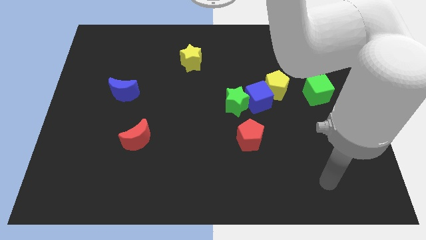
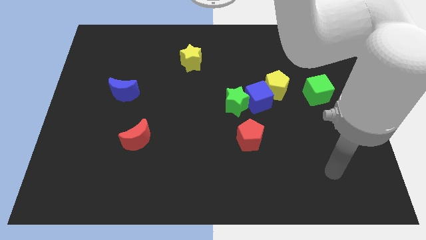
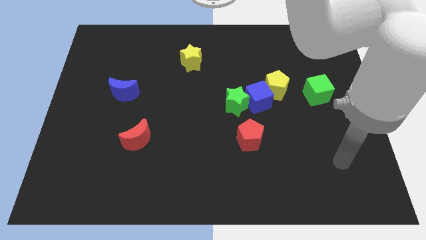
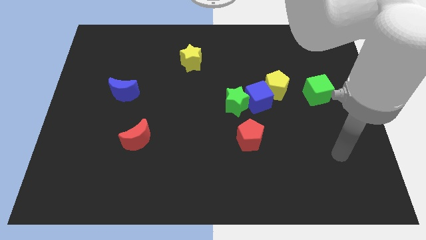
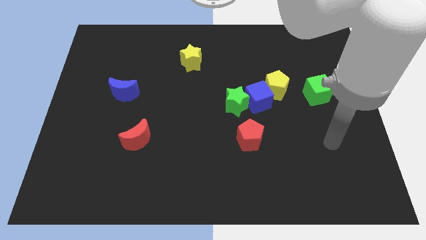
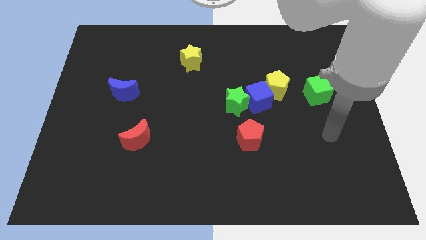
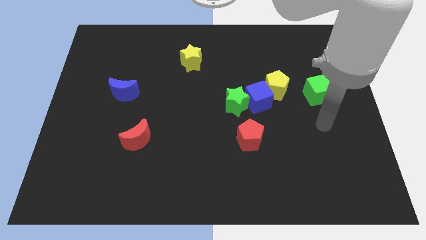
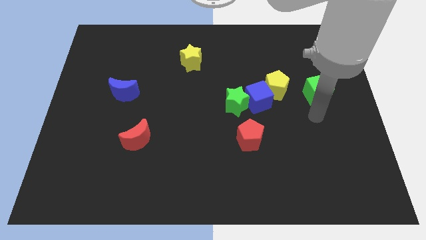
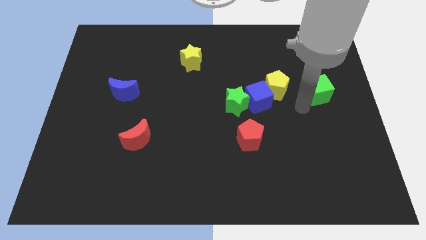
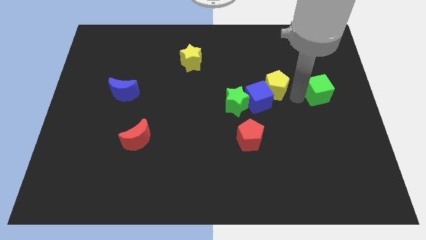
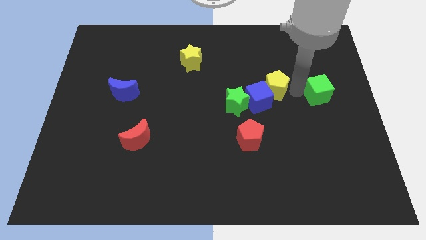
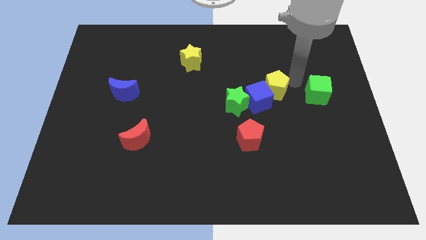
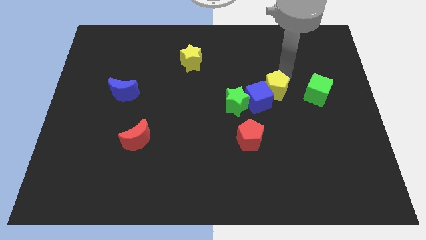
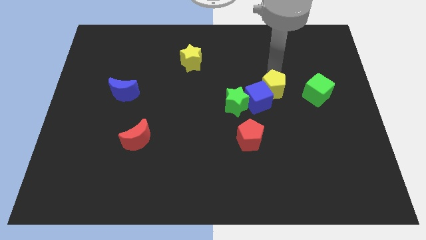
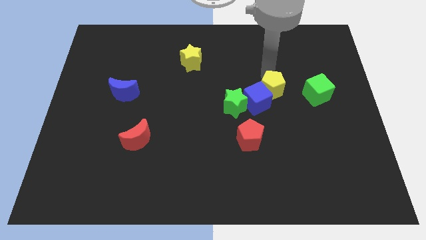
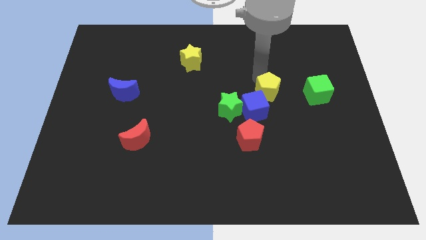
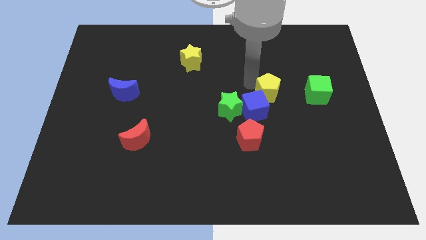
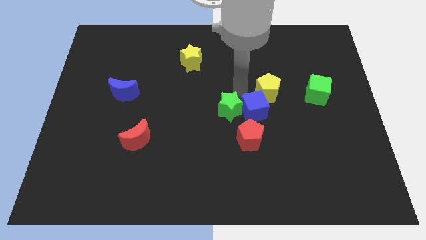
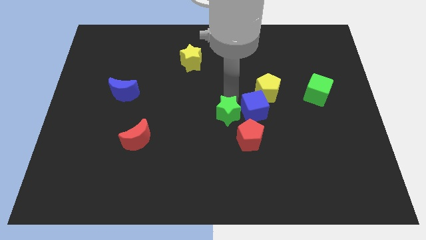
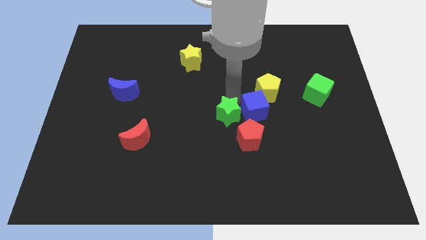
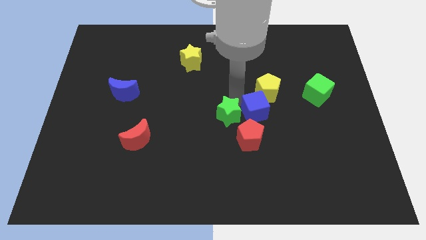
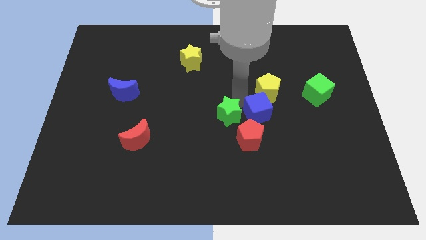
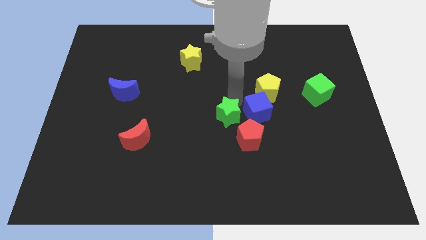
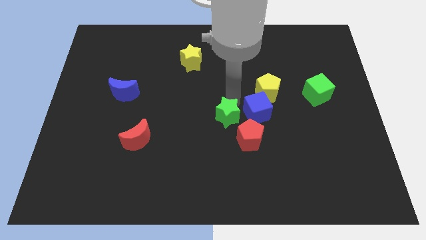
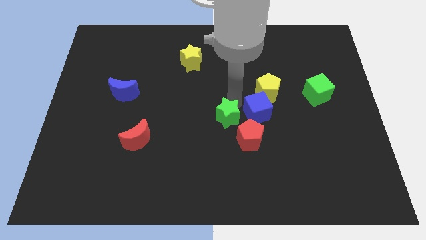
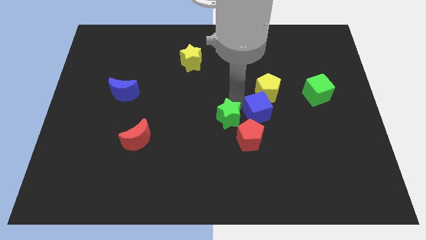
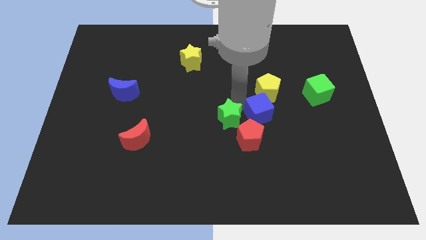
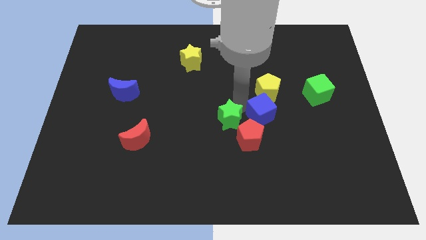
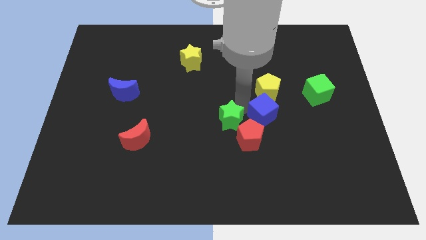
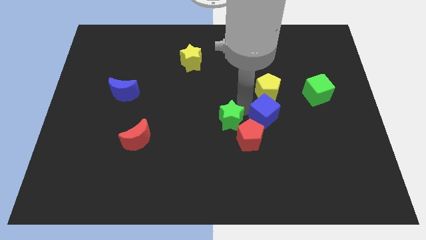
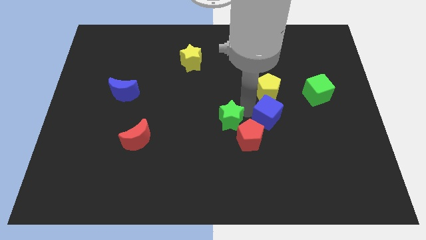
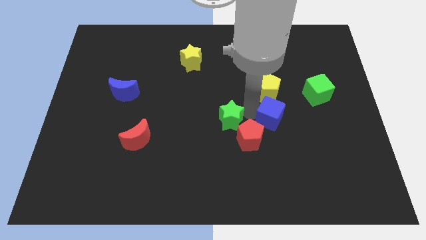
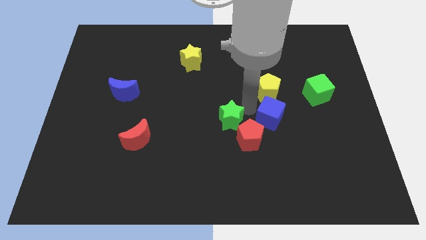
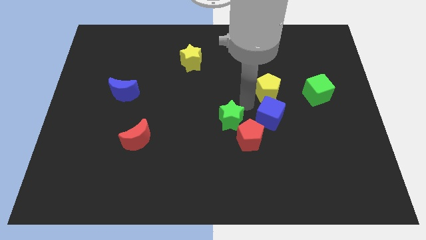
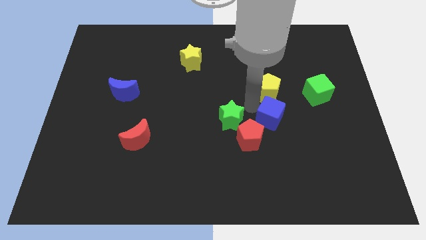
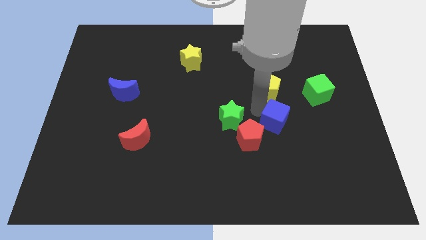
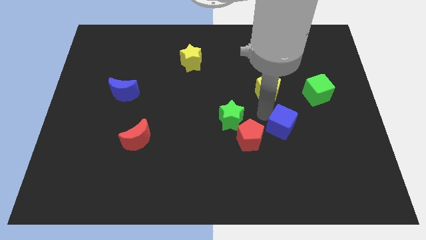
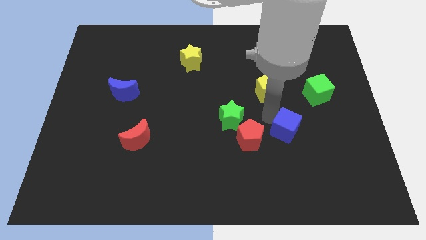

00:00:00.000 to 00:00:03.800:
separate the blue cube from the yellow pentagon and green star

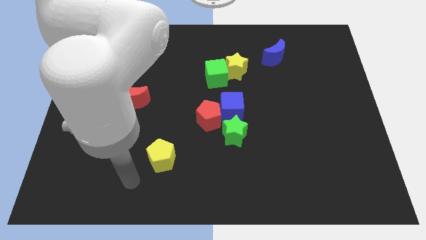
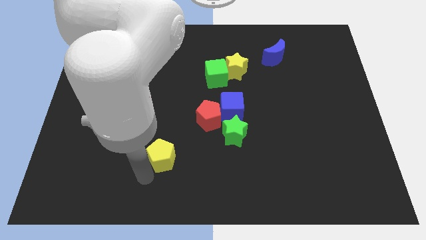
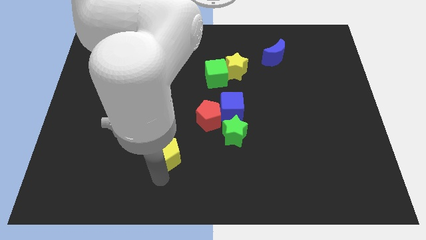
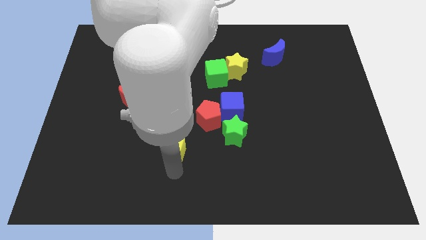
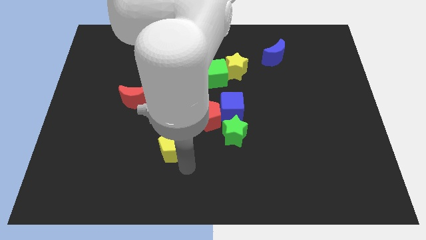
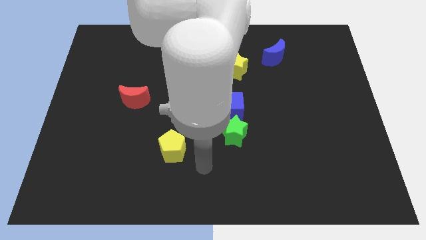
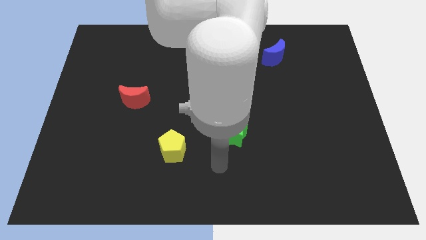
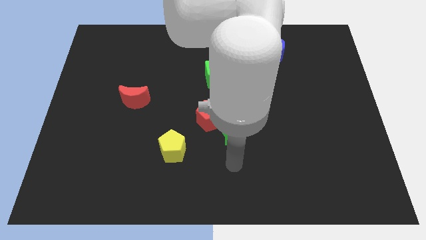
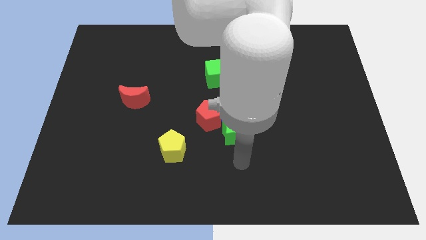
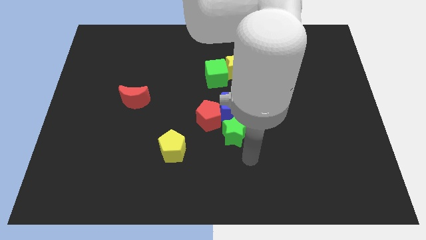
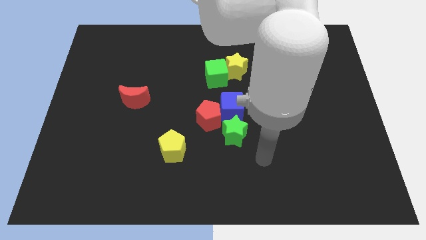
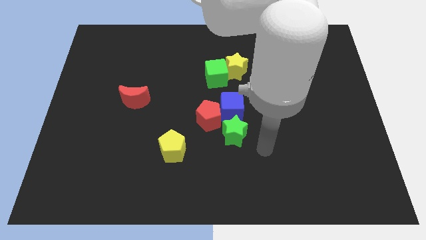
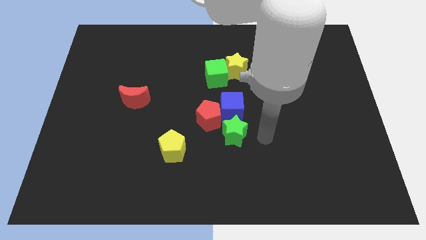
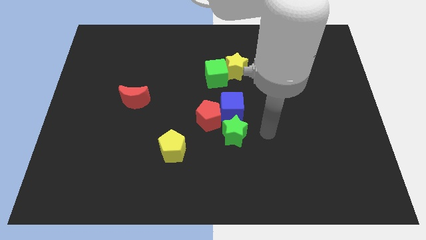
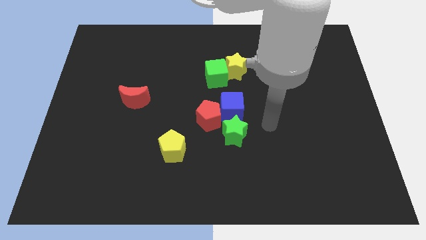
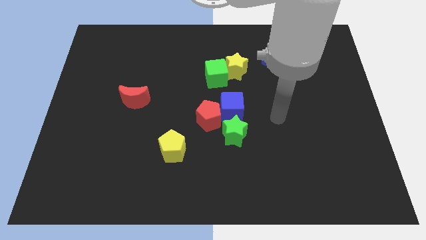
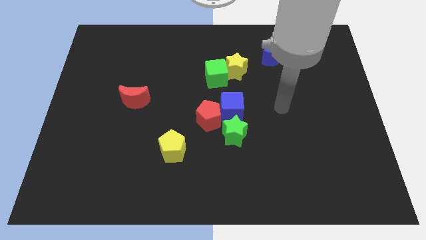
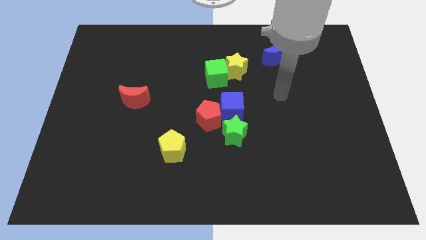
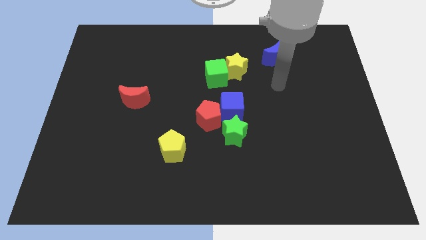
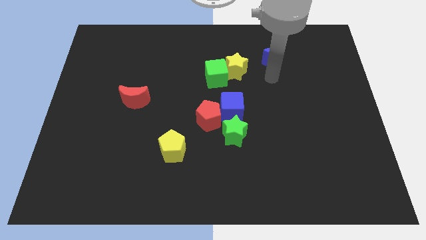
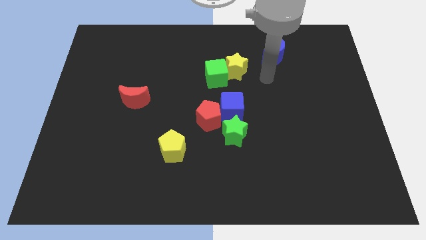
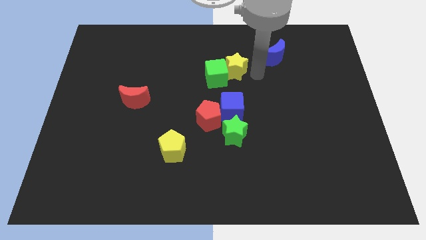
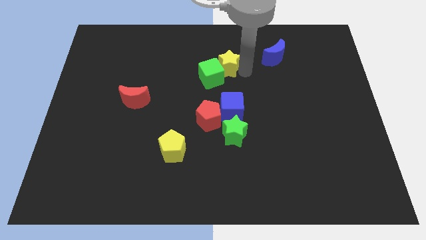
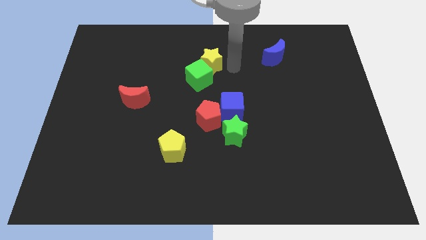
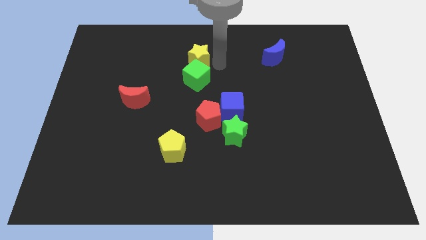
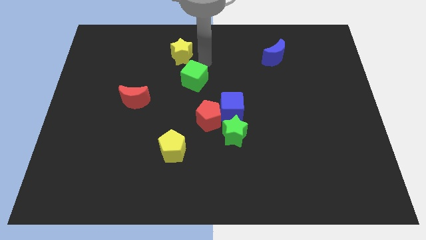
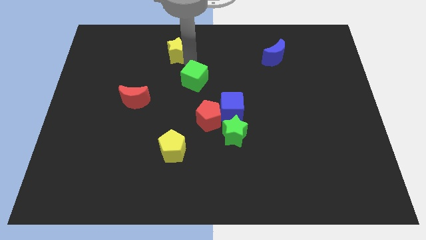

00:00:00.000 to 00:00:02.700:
pull the green cube apart from the yellow star

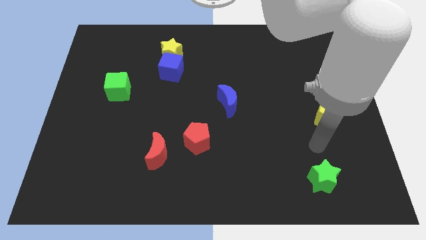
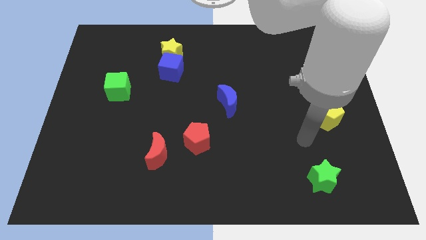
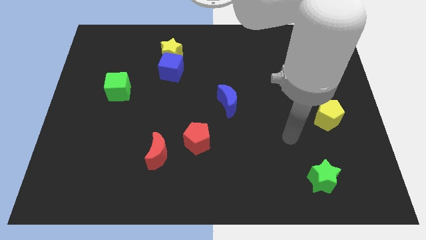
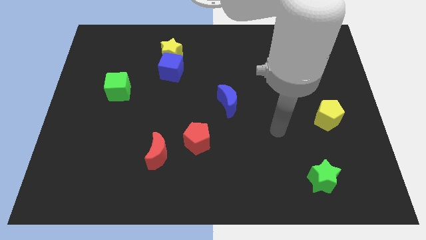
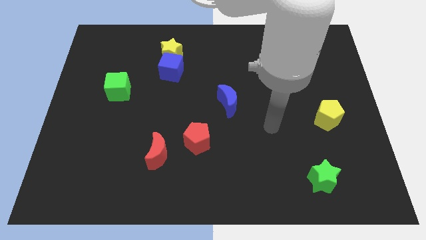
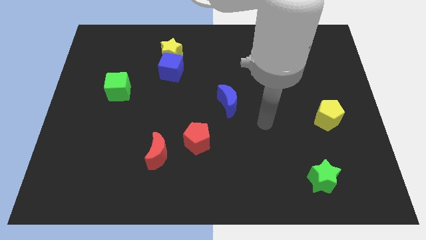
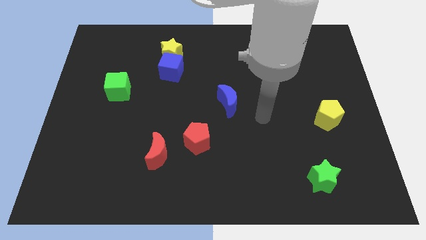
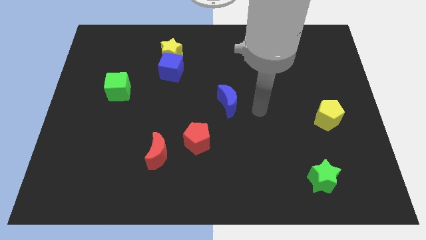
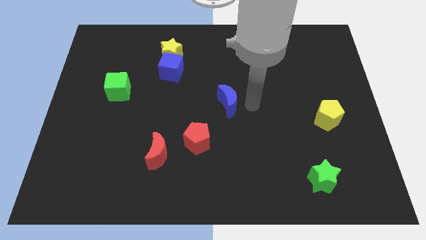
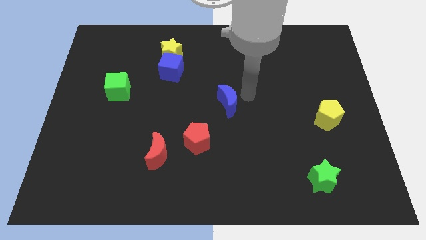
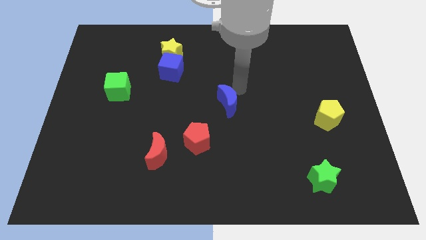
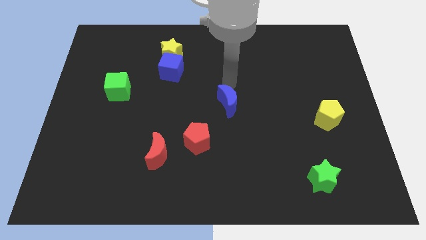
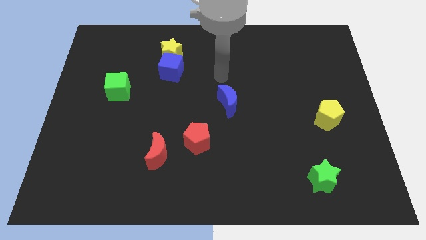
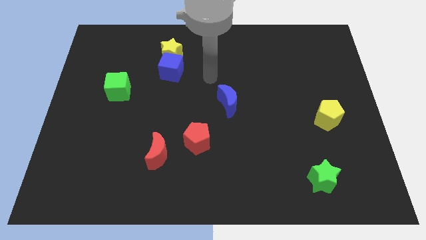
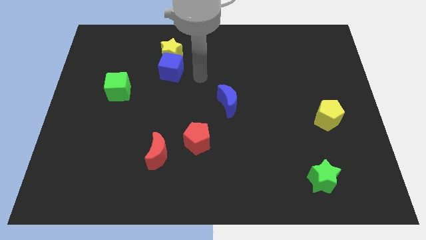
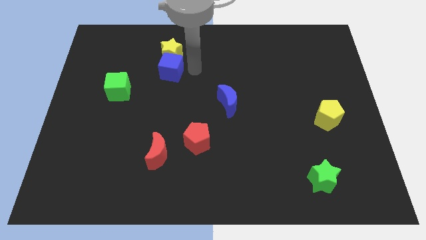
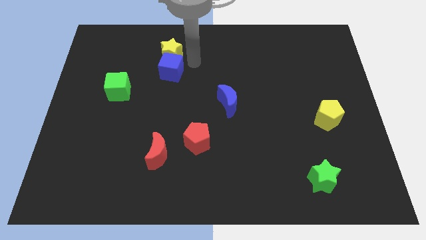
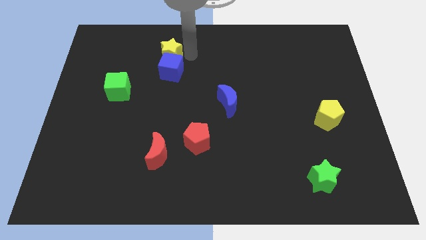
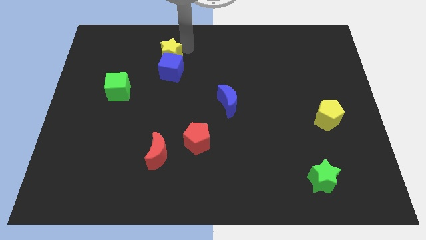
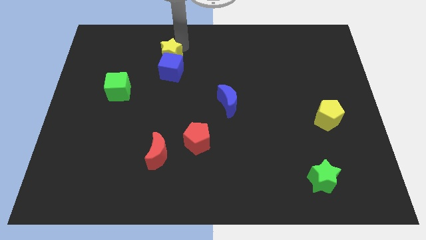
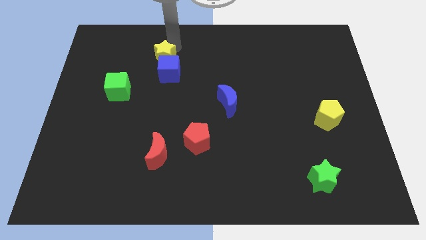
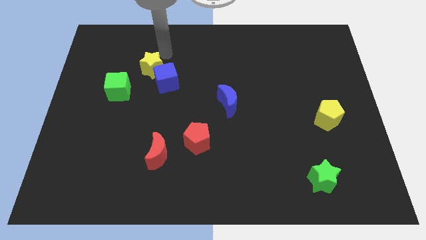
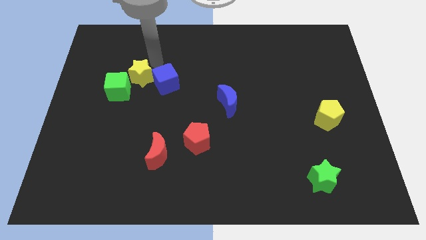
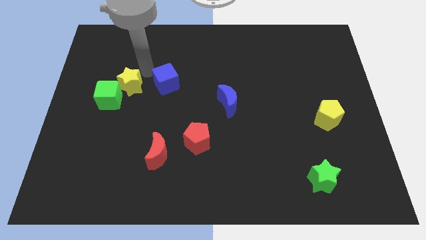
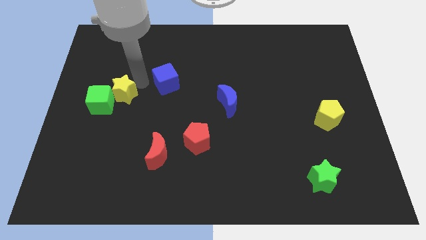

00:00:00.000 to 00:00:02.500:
move the blue cube away from the yellow star

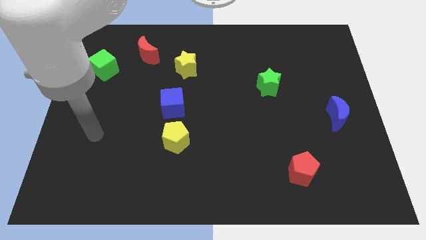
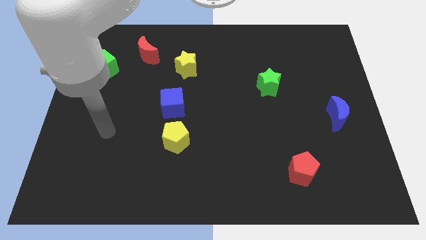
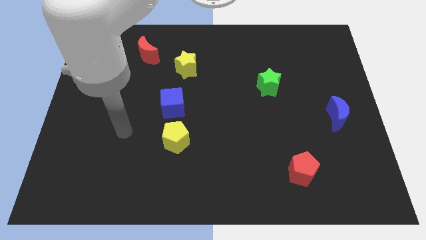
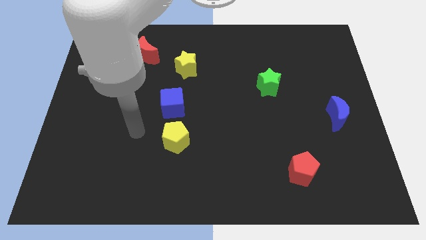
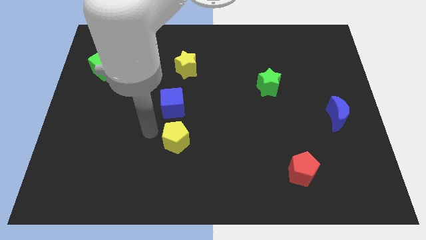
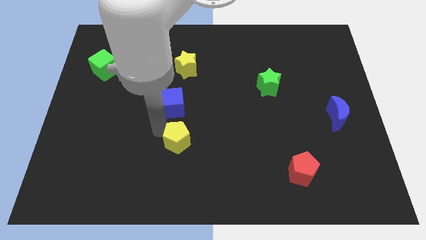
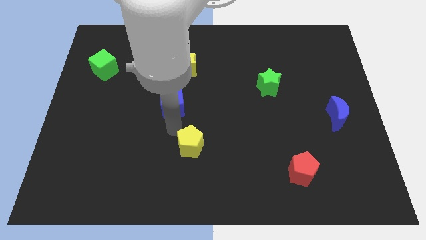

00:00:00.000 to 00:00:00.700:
move the blue cube away from the yellow pentagon
